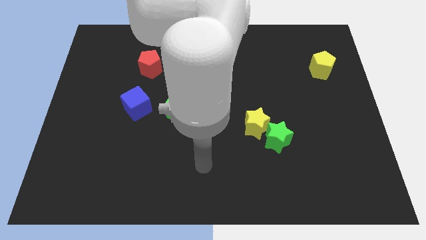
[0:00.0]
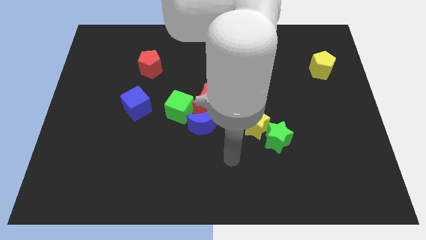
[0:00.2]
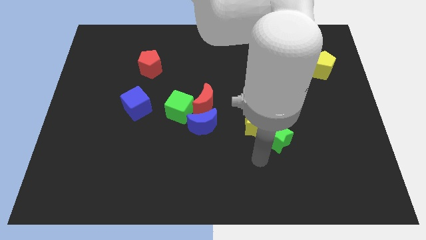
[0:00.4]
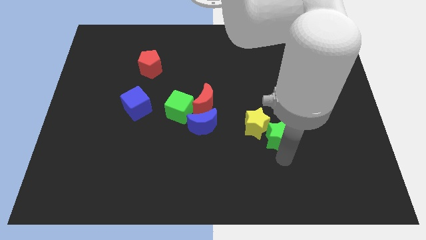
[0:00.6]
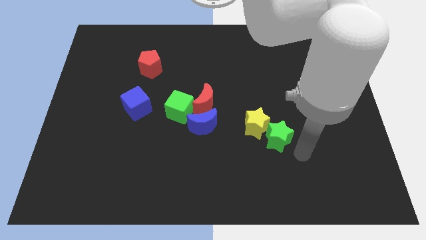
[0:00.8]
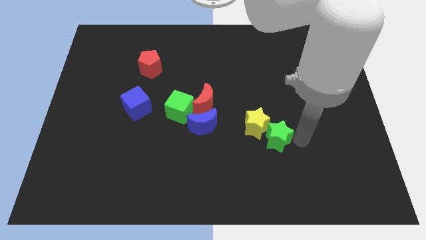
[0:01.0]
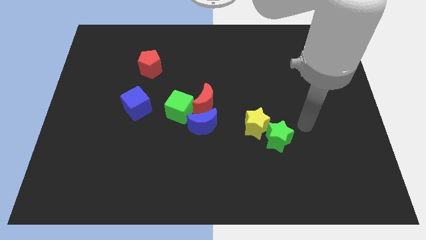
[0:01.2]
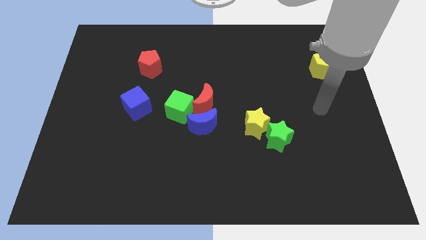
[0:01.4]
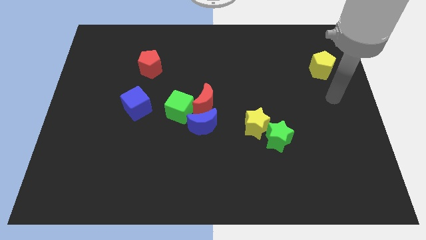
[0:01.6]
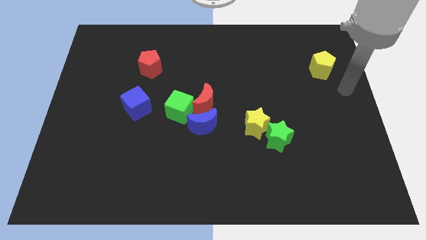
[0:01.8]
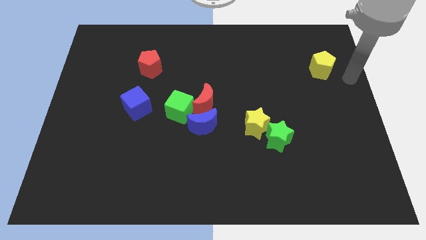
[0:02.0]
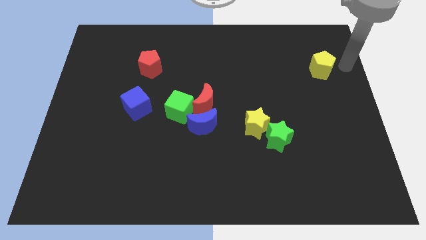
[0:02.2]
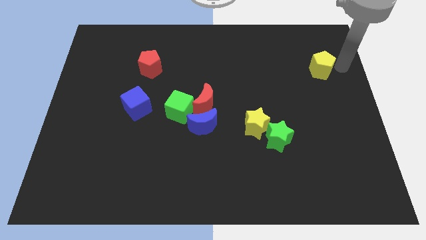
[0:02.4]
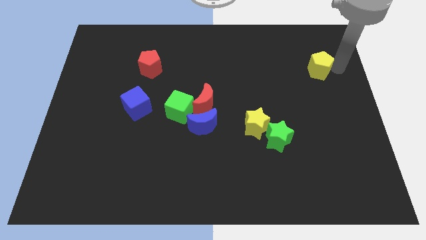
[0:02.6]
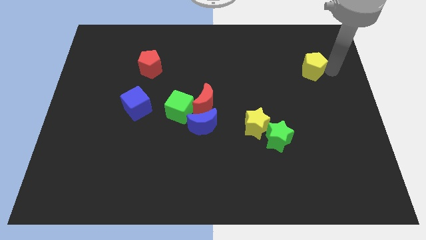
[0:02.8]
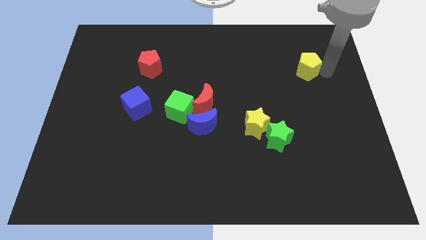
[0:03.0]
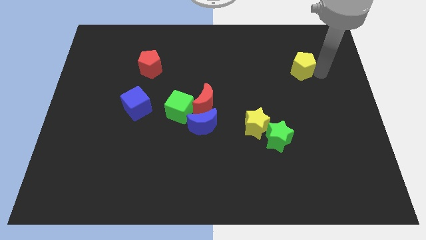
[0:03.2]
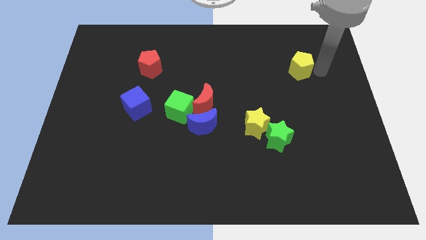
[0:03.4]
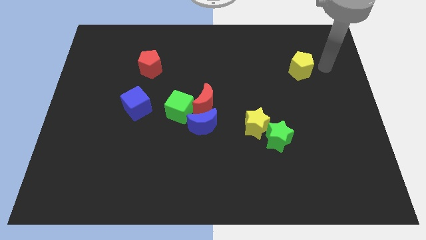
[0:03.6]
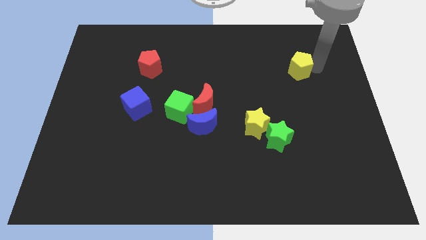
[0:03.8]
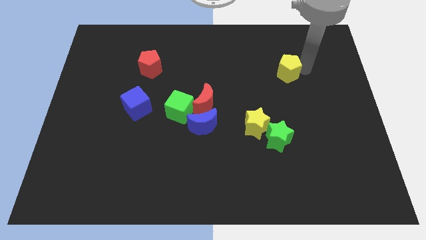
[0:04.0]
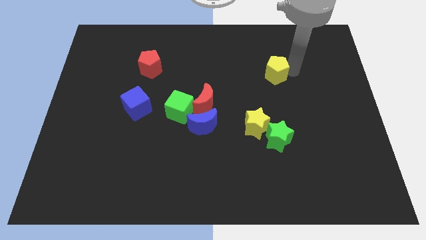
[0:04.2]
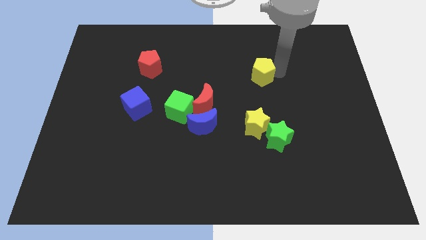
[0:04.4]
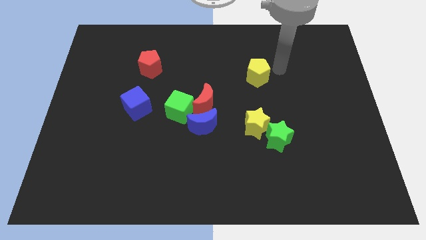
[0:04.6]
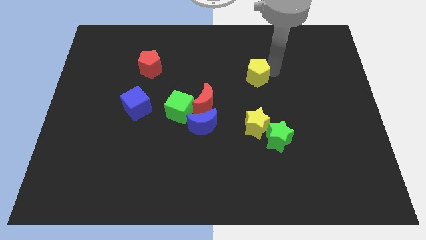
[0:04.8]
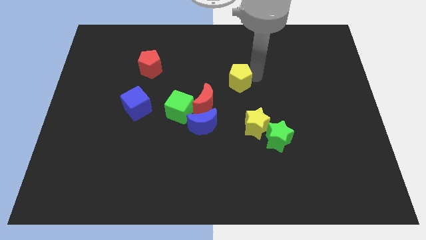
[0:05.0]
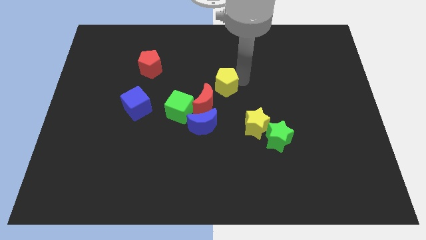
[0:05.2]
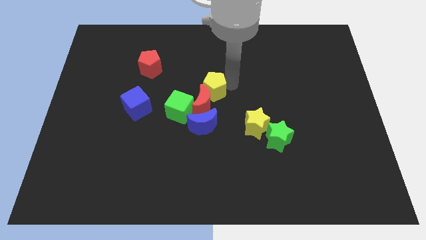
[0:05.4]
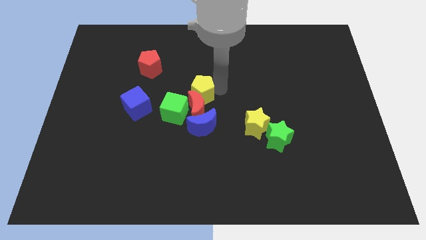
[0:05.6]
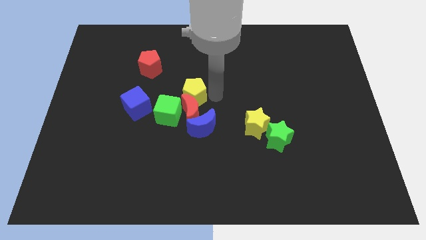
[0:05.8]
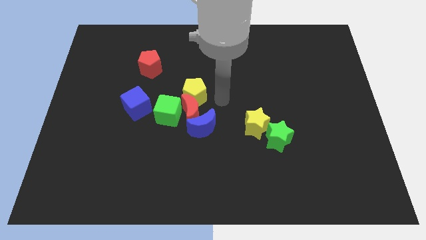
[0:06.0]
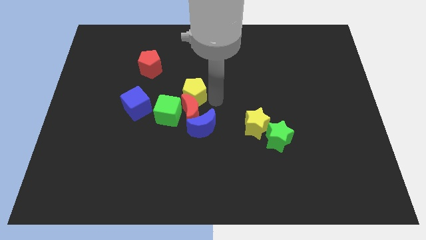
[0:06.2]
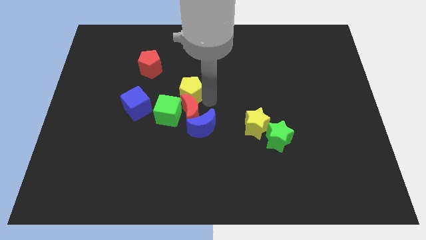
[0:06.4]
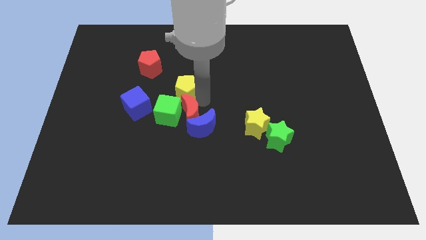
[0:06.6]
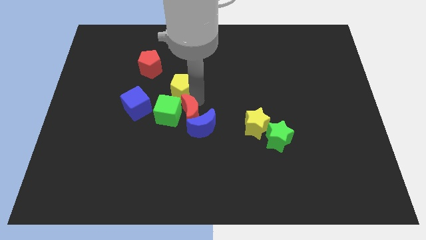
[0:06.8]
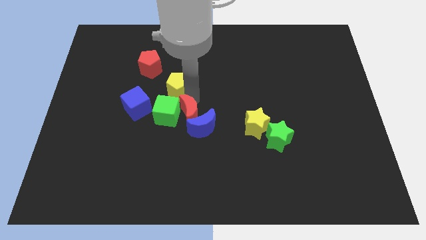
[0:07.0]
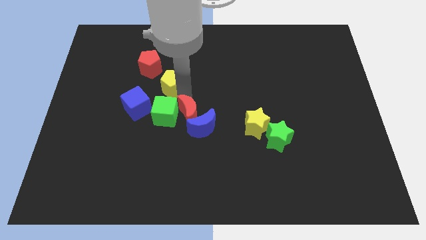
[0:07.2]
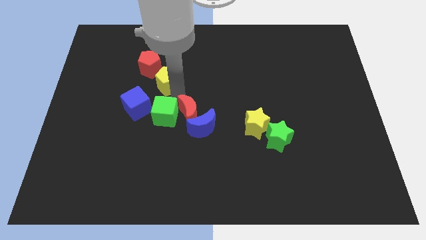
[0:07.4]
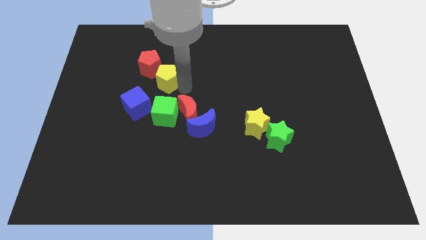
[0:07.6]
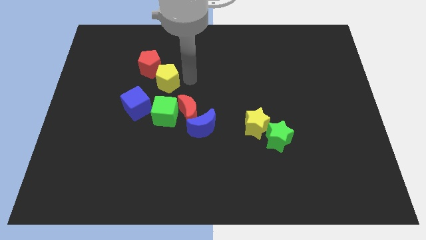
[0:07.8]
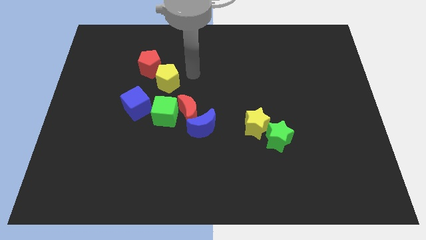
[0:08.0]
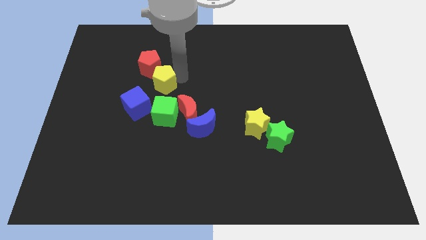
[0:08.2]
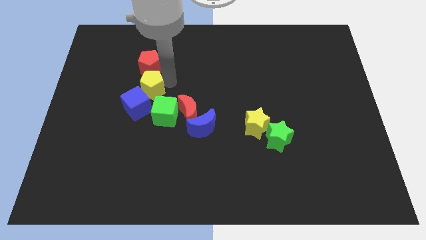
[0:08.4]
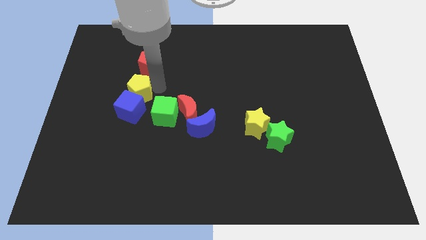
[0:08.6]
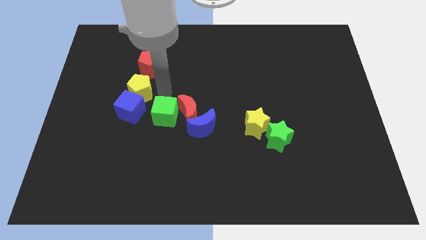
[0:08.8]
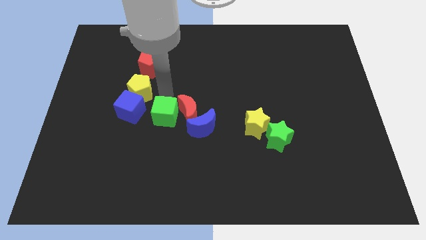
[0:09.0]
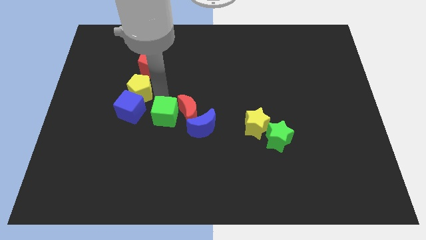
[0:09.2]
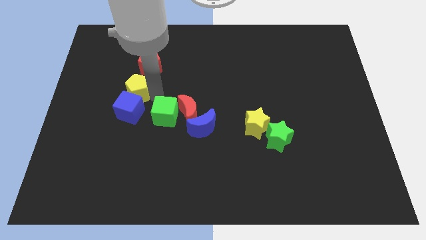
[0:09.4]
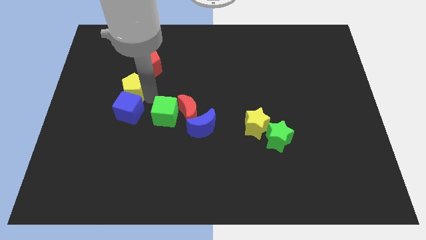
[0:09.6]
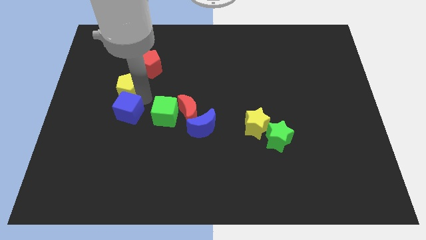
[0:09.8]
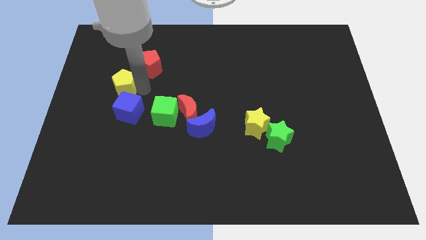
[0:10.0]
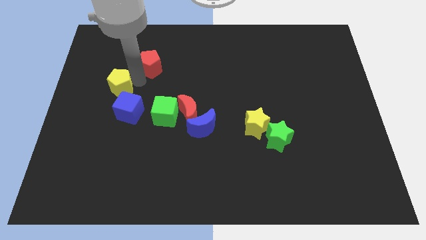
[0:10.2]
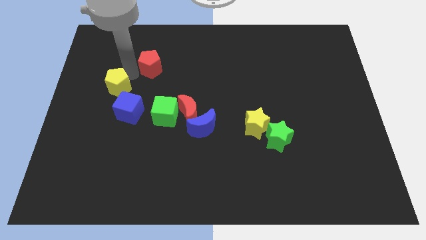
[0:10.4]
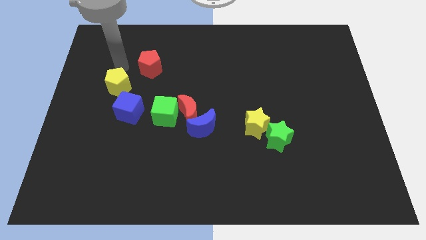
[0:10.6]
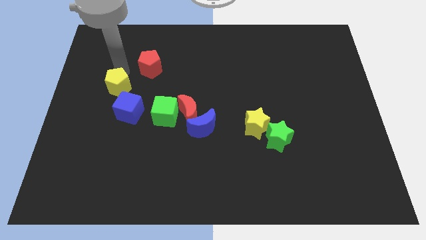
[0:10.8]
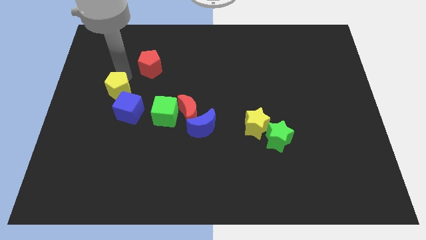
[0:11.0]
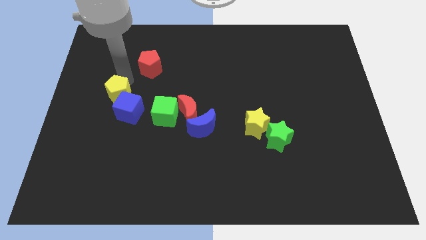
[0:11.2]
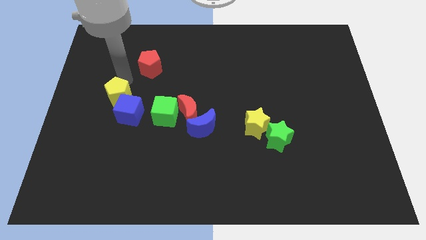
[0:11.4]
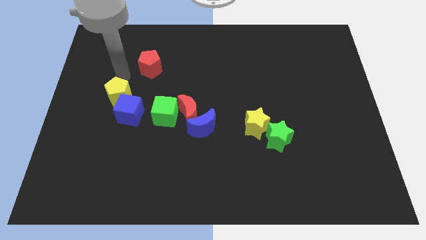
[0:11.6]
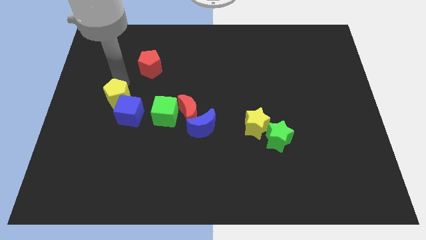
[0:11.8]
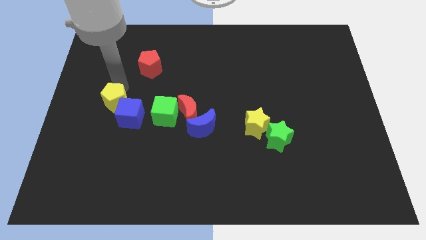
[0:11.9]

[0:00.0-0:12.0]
put the yellow pentagon to the left of the green cube

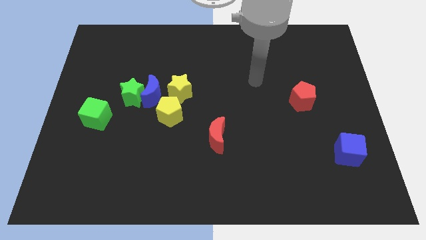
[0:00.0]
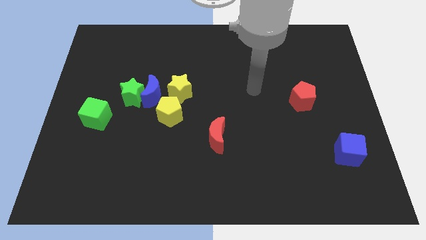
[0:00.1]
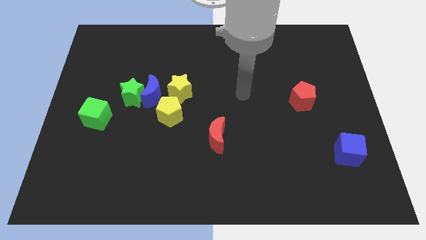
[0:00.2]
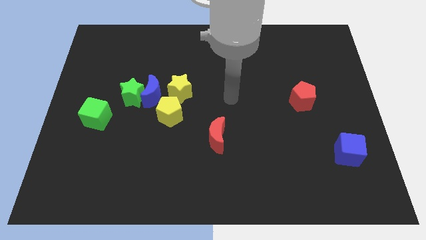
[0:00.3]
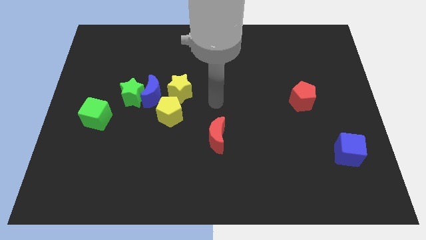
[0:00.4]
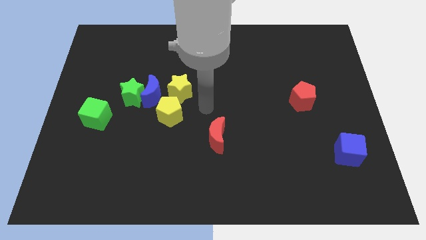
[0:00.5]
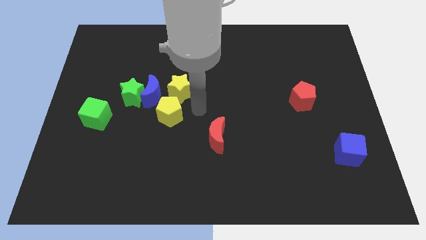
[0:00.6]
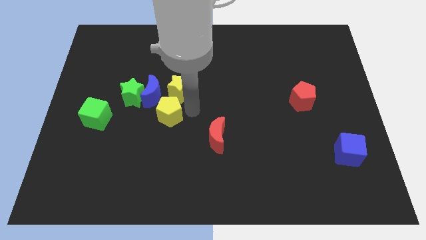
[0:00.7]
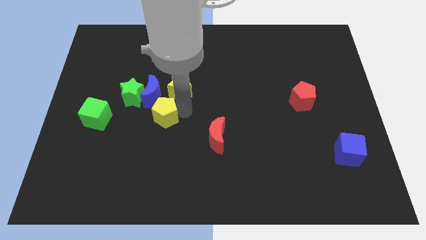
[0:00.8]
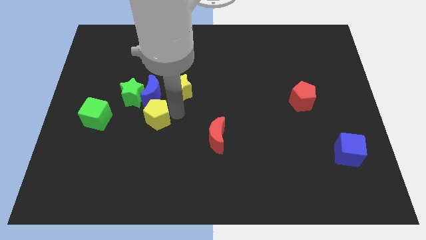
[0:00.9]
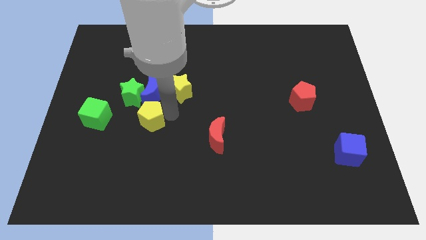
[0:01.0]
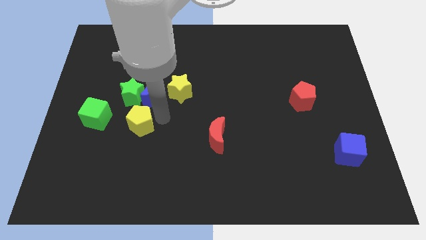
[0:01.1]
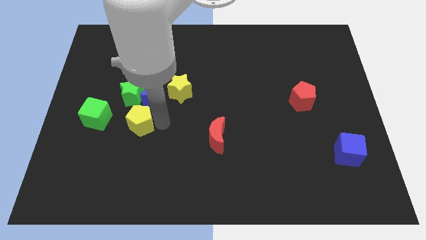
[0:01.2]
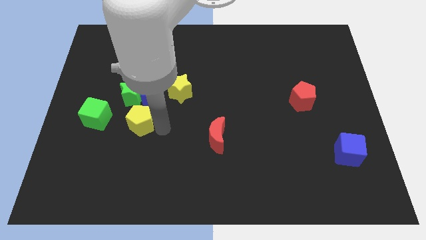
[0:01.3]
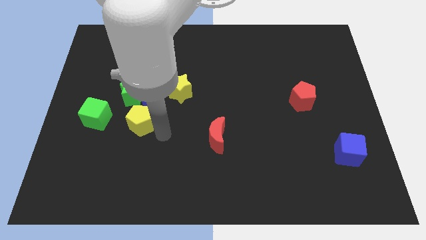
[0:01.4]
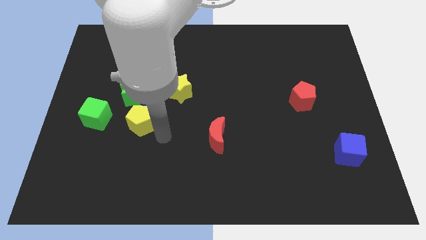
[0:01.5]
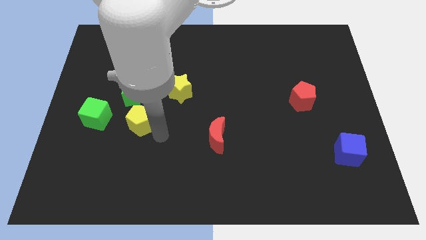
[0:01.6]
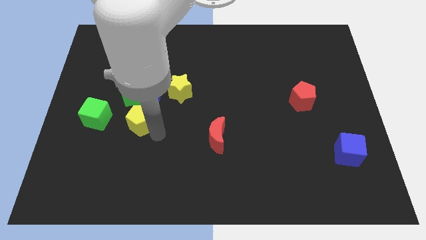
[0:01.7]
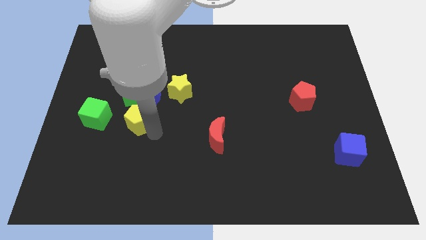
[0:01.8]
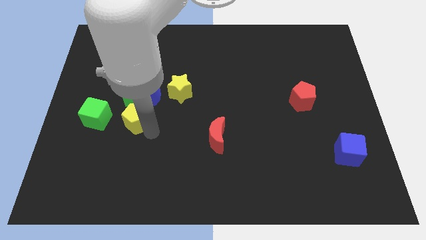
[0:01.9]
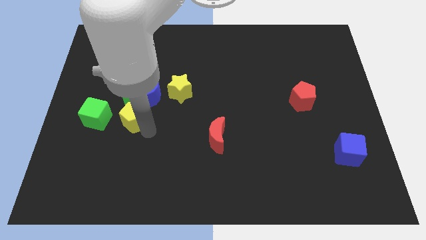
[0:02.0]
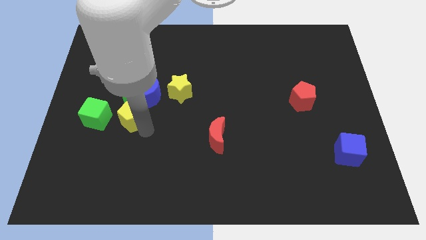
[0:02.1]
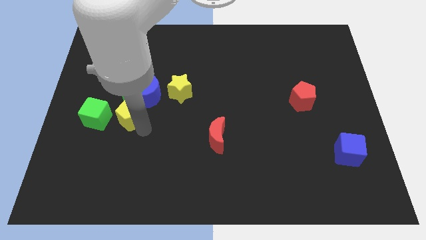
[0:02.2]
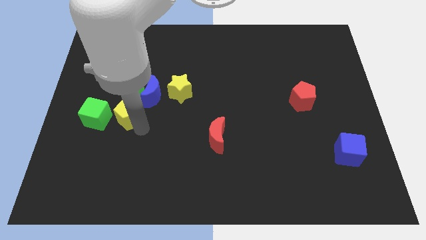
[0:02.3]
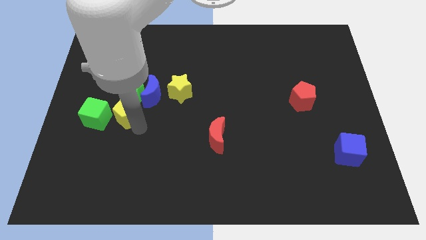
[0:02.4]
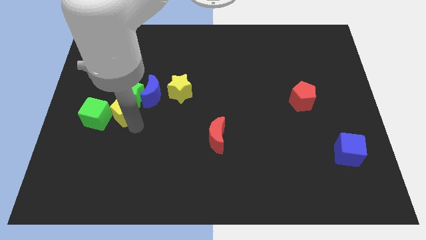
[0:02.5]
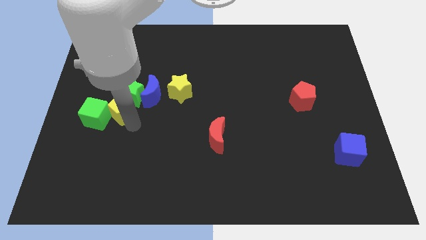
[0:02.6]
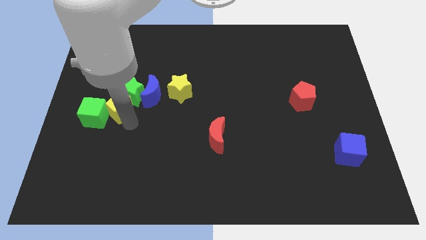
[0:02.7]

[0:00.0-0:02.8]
put the yellow pentagon to the left of the blue moon
